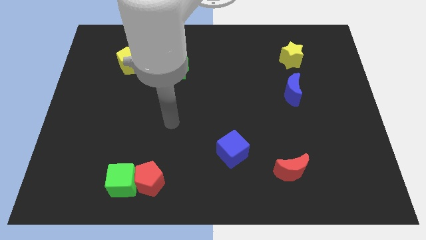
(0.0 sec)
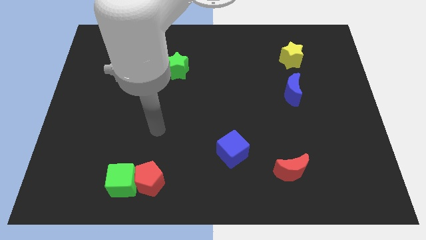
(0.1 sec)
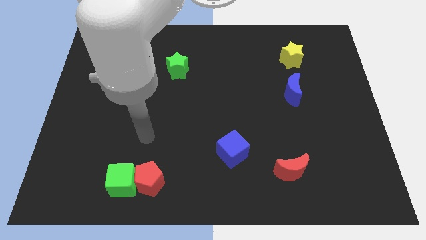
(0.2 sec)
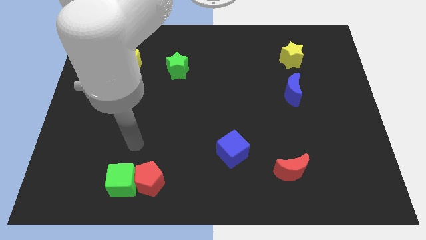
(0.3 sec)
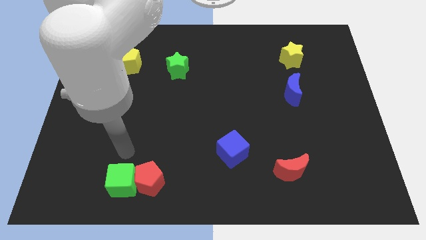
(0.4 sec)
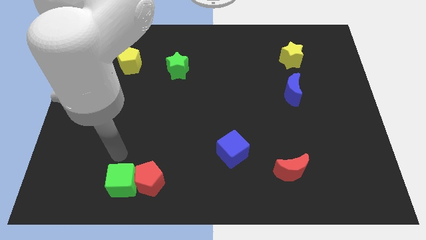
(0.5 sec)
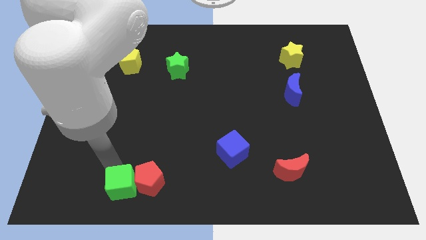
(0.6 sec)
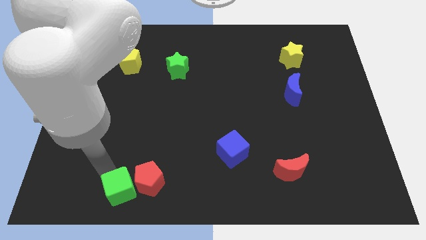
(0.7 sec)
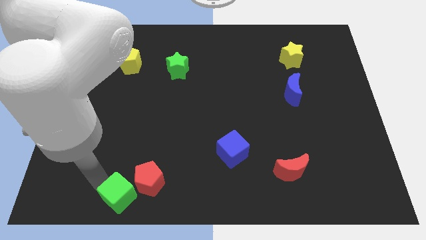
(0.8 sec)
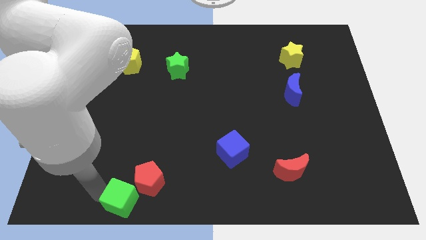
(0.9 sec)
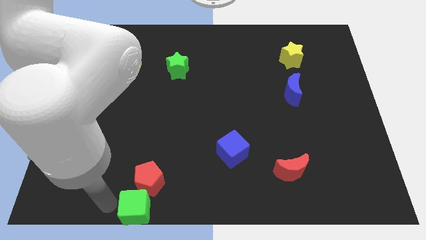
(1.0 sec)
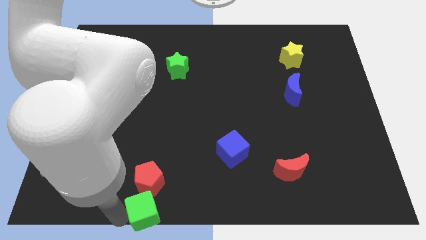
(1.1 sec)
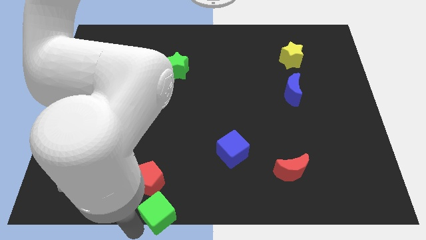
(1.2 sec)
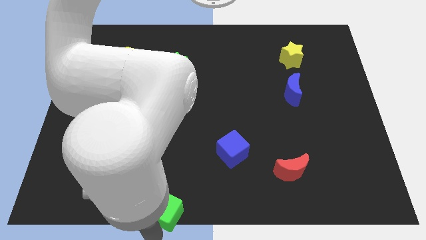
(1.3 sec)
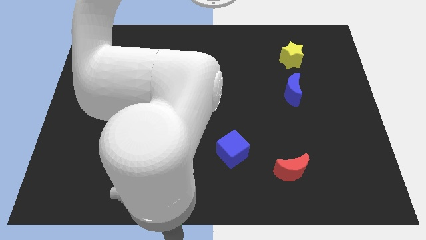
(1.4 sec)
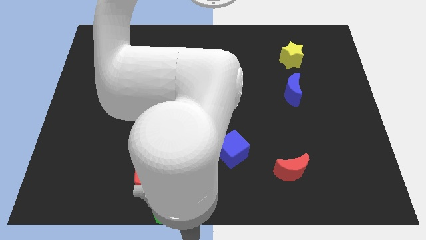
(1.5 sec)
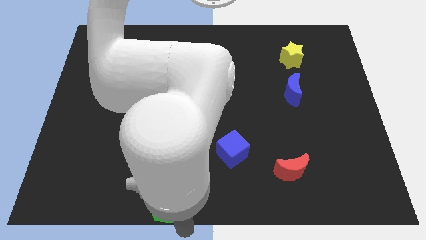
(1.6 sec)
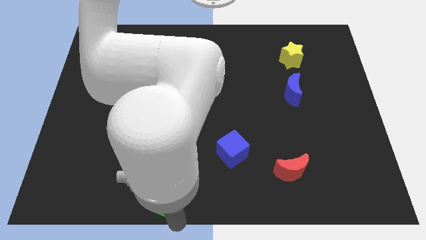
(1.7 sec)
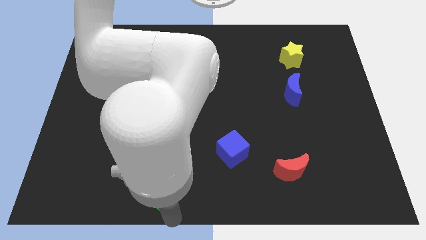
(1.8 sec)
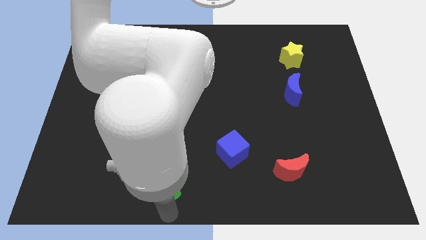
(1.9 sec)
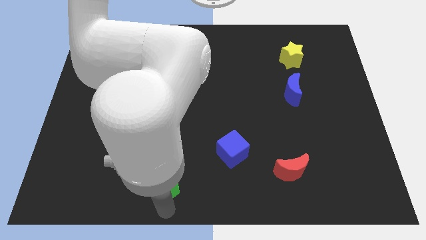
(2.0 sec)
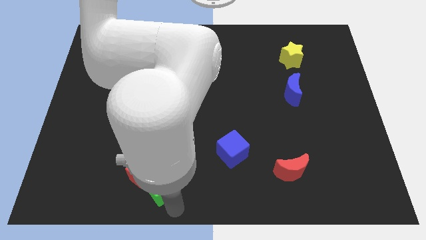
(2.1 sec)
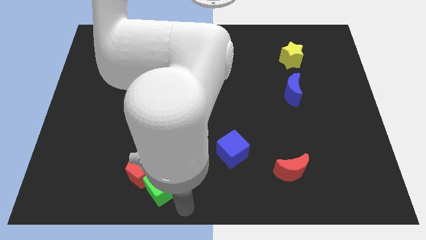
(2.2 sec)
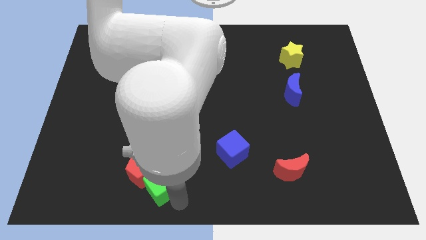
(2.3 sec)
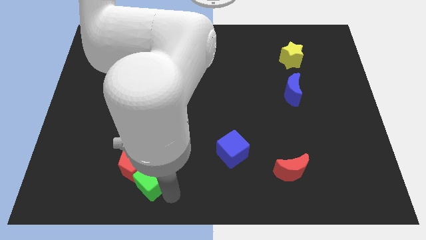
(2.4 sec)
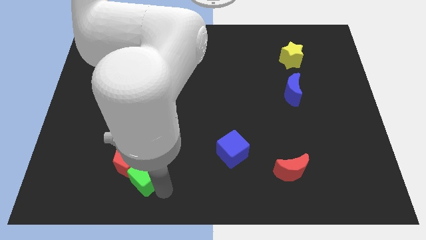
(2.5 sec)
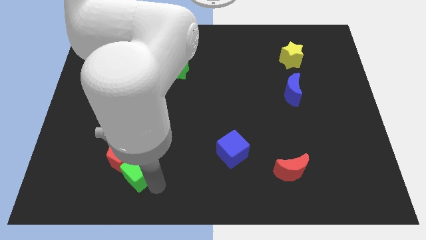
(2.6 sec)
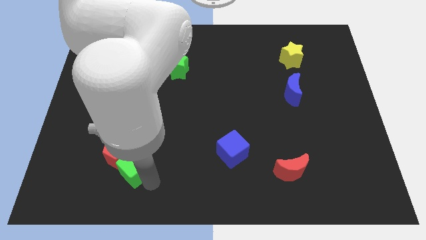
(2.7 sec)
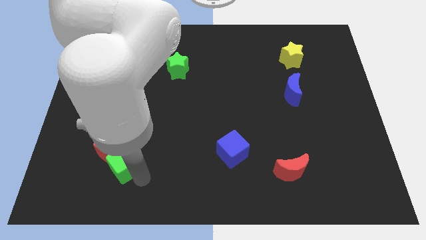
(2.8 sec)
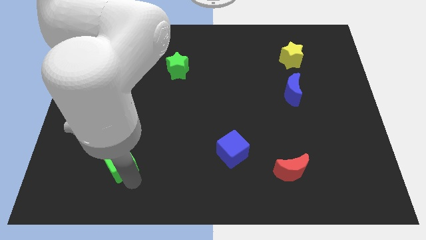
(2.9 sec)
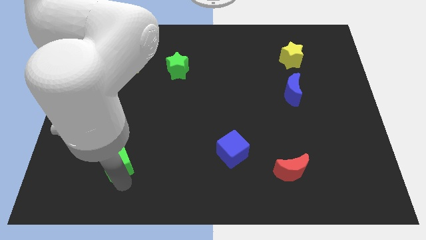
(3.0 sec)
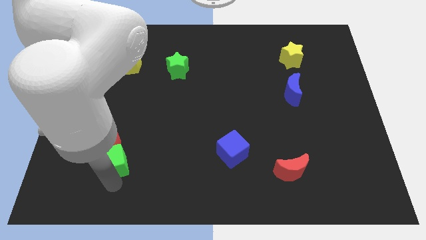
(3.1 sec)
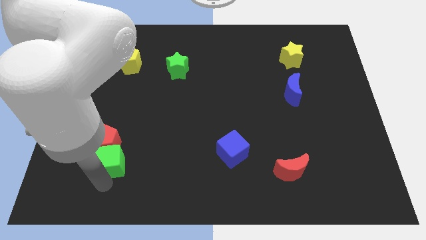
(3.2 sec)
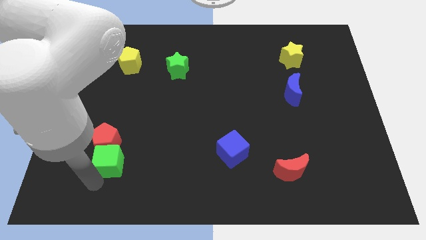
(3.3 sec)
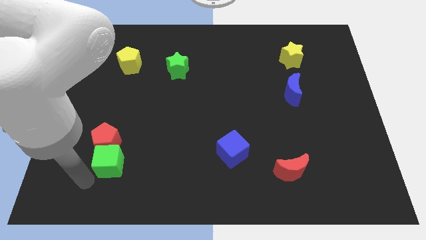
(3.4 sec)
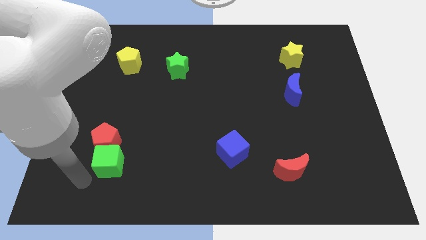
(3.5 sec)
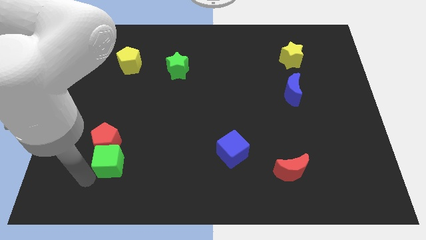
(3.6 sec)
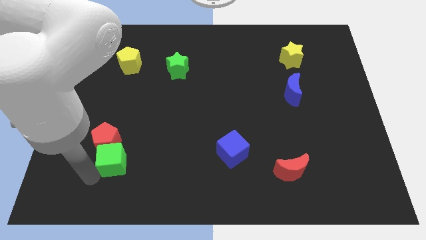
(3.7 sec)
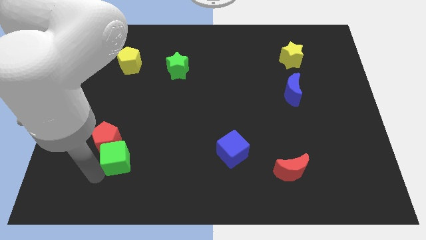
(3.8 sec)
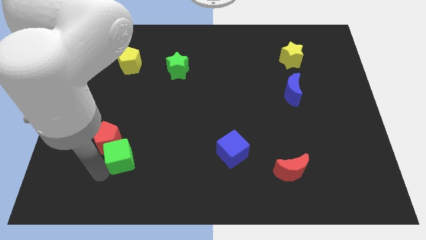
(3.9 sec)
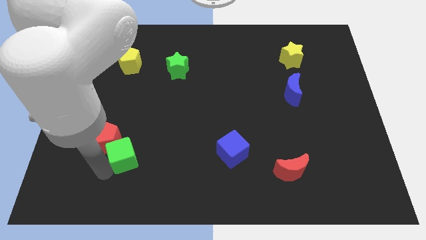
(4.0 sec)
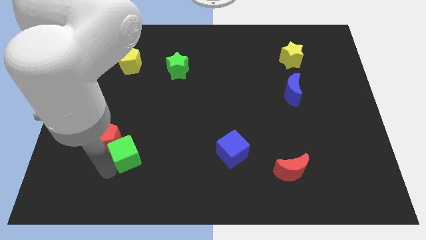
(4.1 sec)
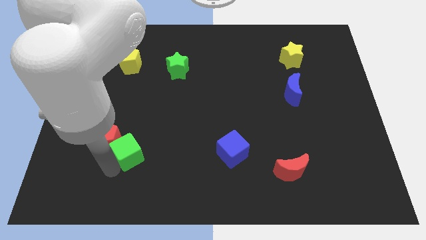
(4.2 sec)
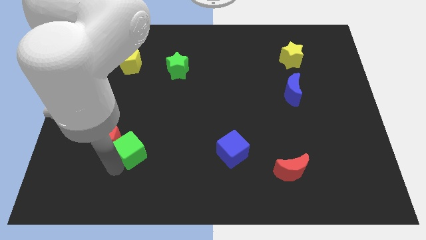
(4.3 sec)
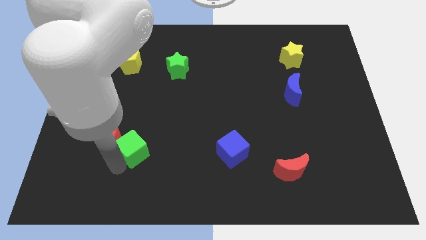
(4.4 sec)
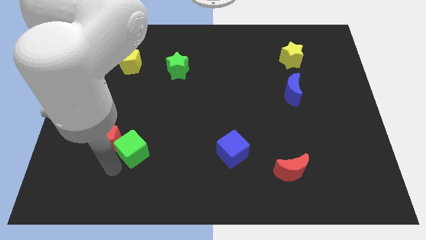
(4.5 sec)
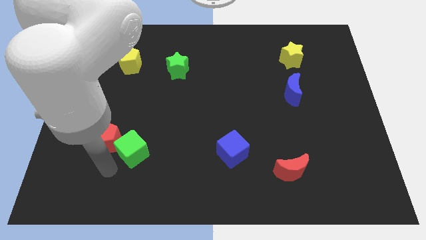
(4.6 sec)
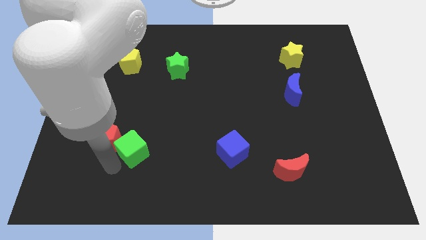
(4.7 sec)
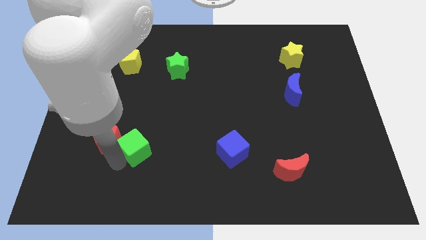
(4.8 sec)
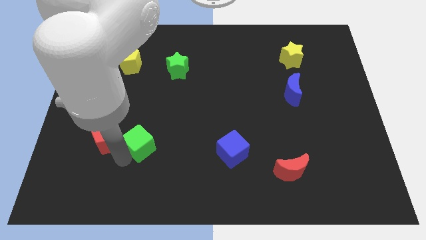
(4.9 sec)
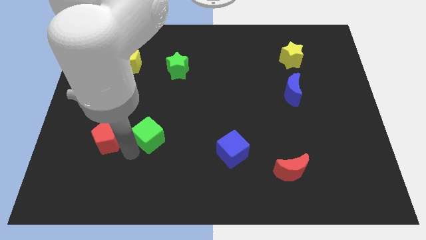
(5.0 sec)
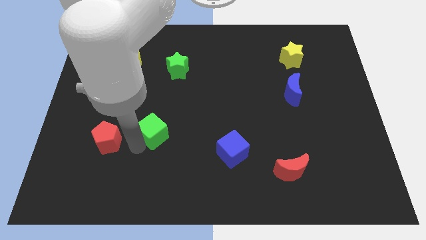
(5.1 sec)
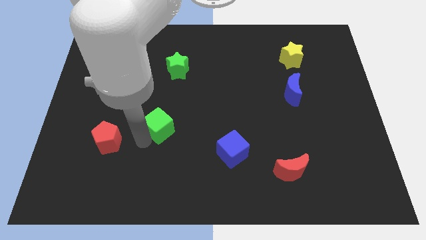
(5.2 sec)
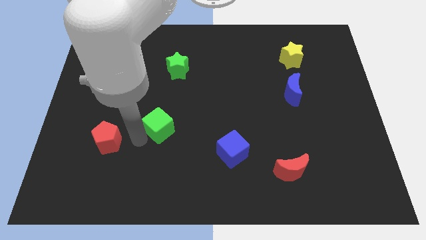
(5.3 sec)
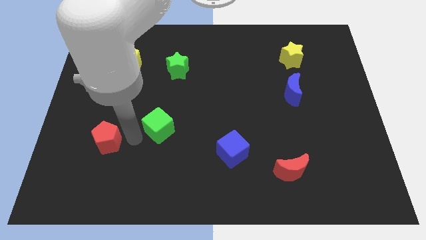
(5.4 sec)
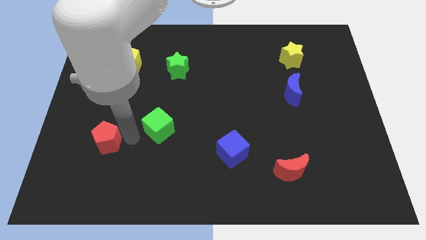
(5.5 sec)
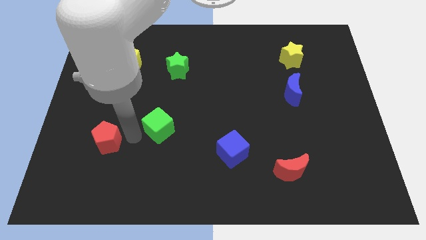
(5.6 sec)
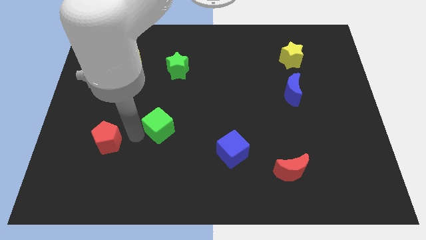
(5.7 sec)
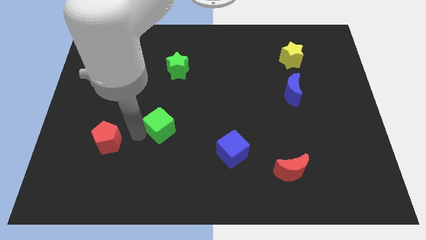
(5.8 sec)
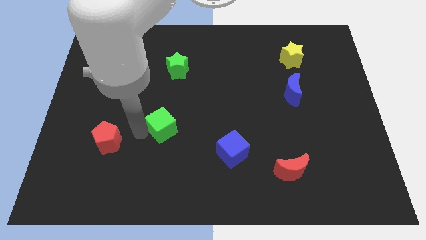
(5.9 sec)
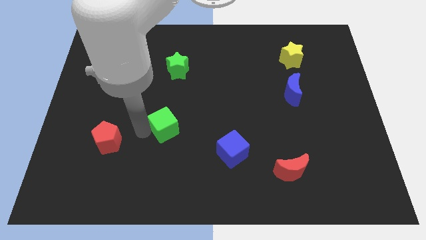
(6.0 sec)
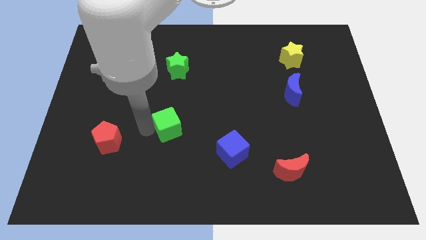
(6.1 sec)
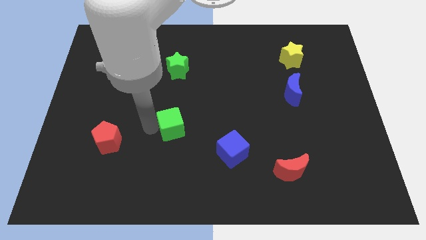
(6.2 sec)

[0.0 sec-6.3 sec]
slide the green cube to the middle of the board

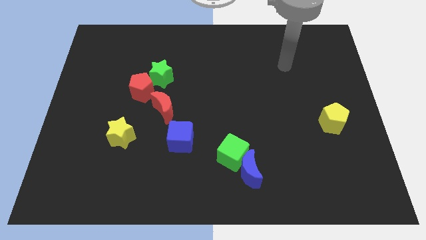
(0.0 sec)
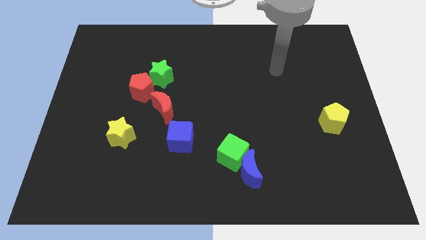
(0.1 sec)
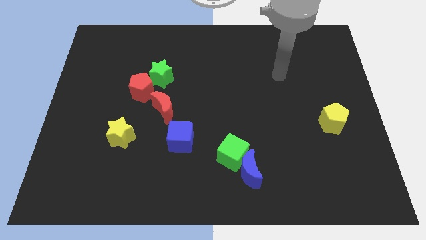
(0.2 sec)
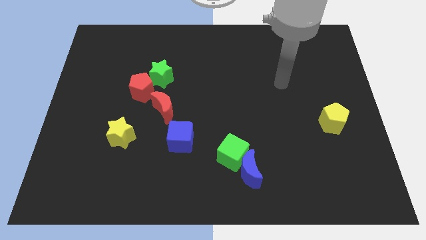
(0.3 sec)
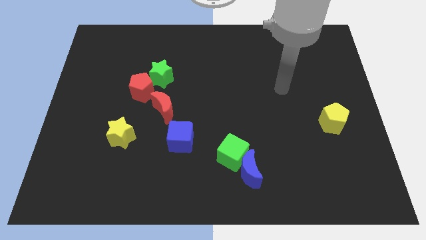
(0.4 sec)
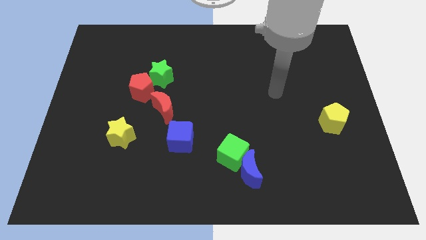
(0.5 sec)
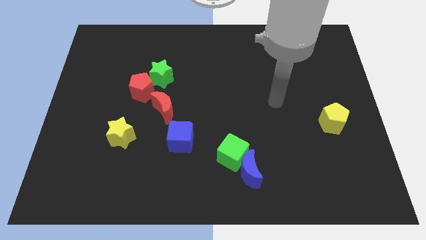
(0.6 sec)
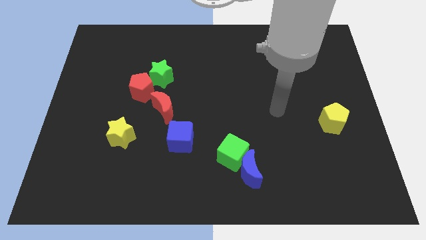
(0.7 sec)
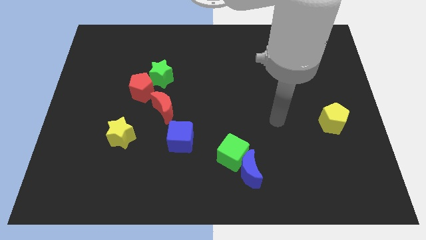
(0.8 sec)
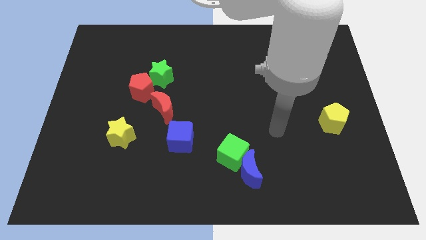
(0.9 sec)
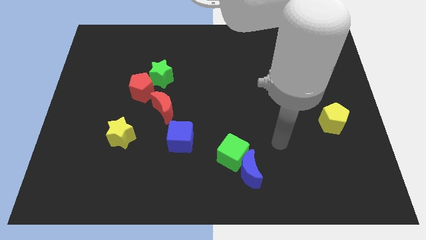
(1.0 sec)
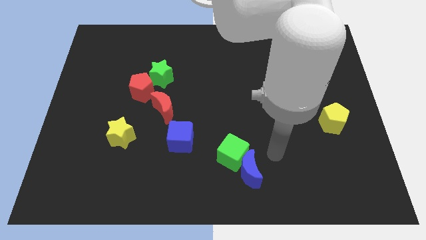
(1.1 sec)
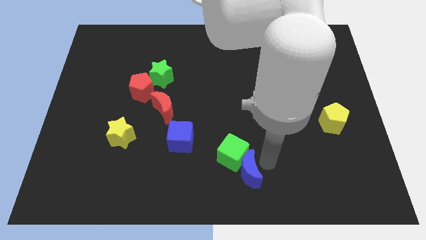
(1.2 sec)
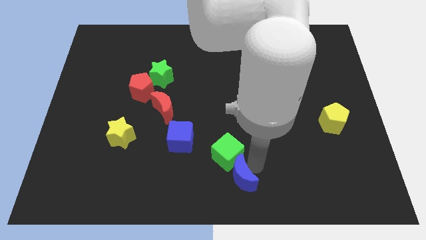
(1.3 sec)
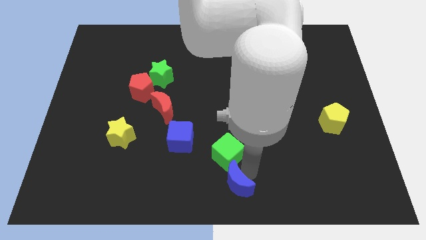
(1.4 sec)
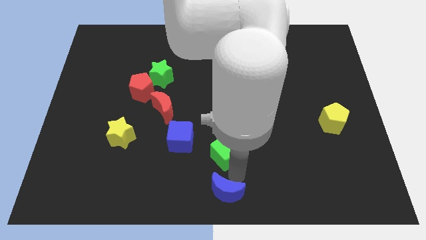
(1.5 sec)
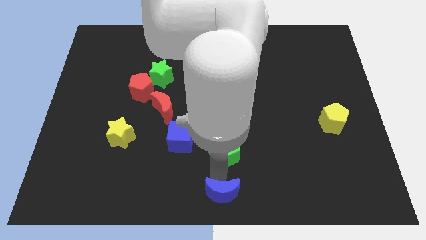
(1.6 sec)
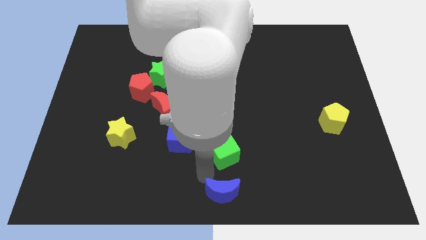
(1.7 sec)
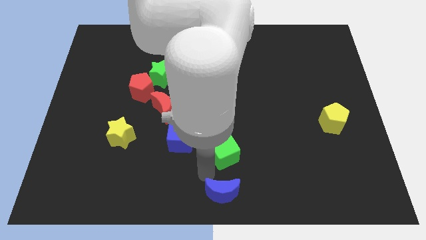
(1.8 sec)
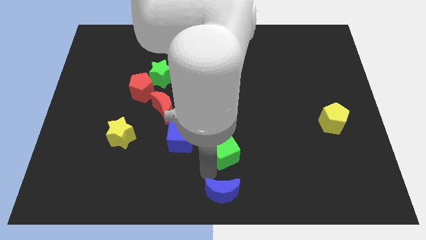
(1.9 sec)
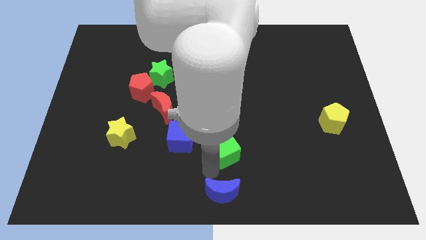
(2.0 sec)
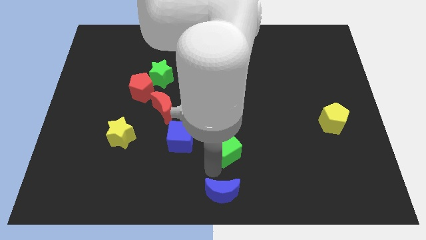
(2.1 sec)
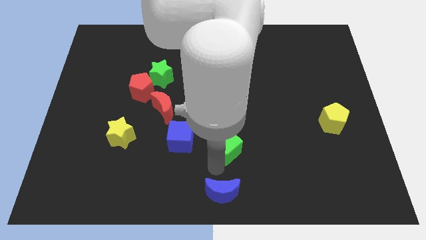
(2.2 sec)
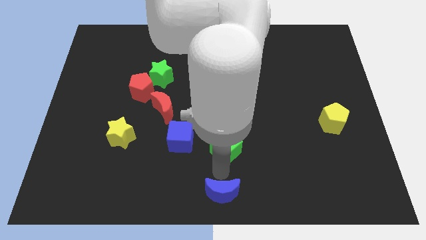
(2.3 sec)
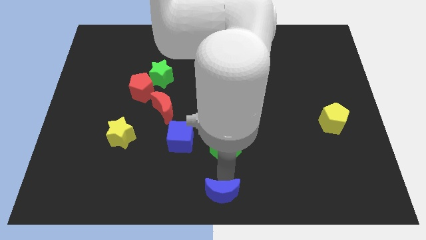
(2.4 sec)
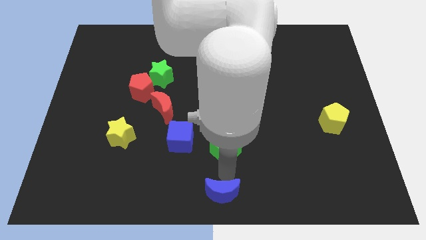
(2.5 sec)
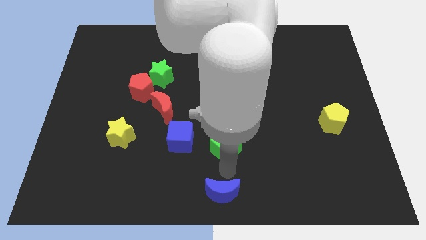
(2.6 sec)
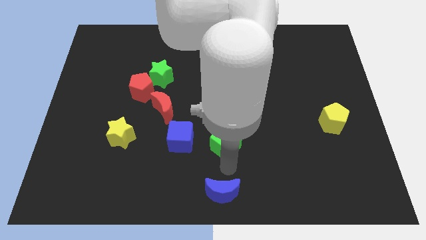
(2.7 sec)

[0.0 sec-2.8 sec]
push the green cube to the middle
